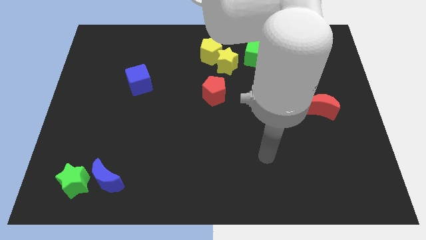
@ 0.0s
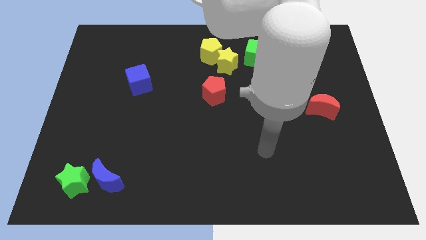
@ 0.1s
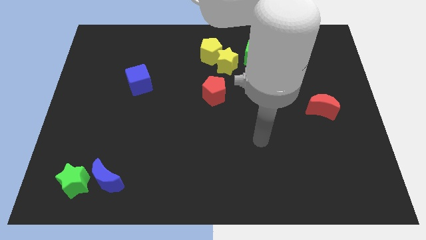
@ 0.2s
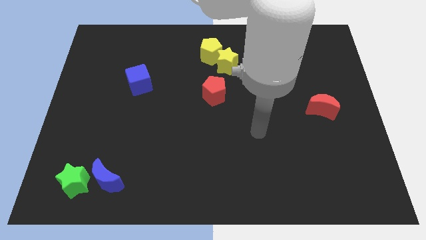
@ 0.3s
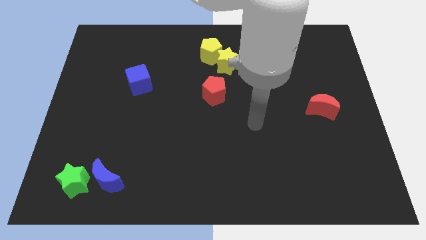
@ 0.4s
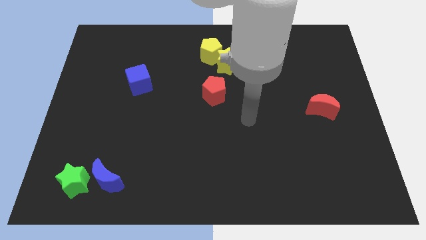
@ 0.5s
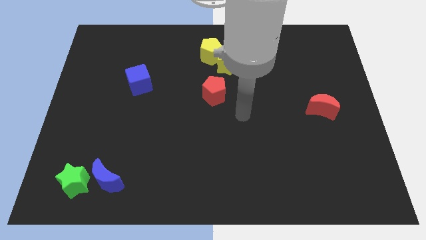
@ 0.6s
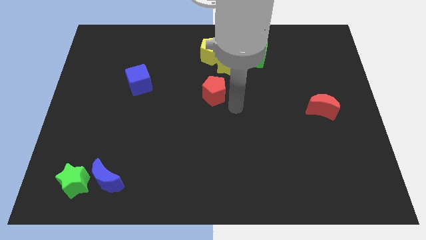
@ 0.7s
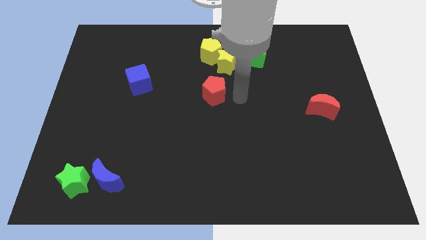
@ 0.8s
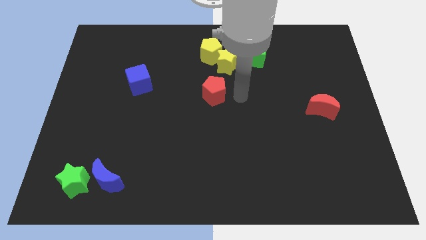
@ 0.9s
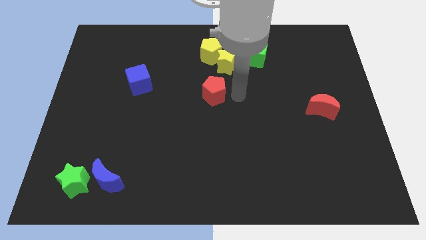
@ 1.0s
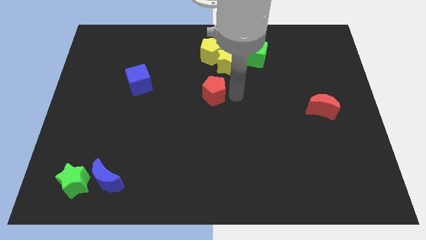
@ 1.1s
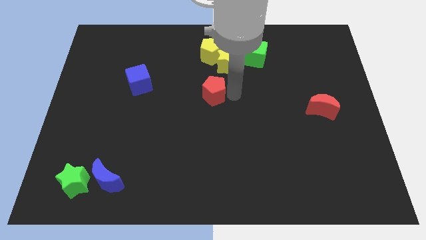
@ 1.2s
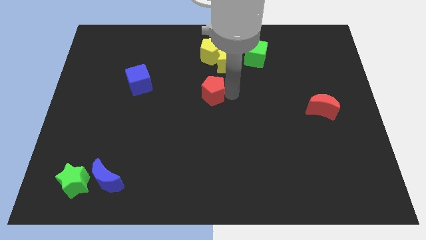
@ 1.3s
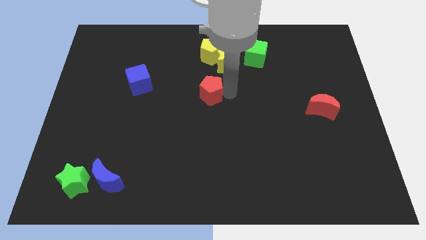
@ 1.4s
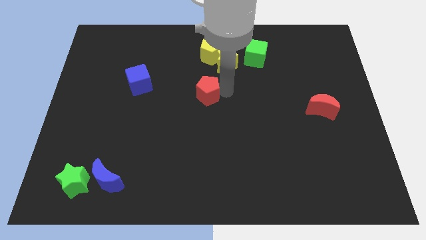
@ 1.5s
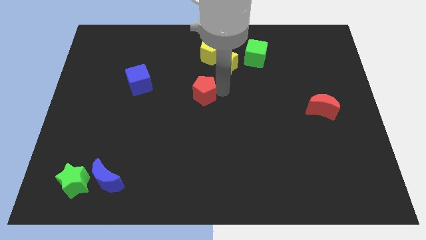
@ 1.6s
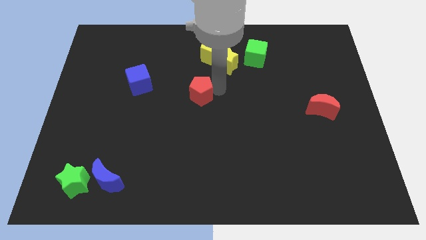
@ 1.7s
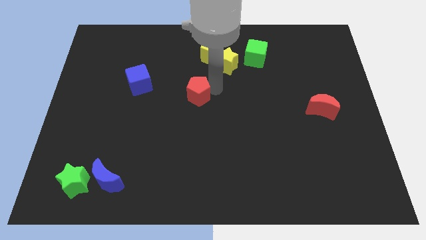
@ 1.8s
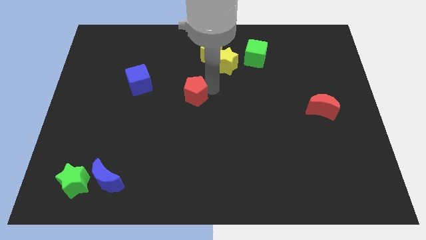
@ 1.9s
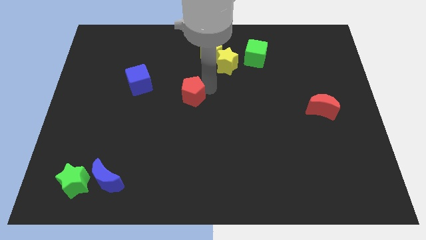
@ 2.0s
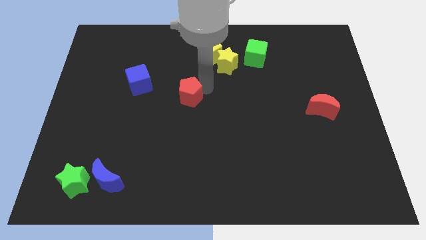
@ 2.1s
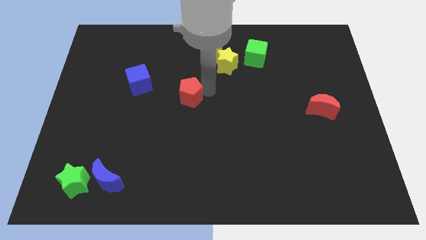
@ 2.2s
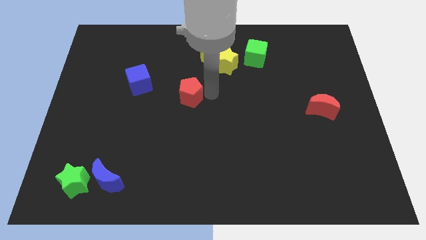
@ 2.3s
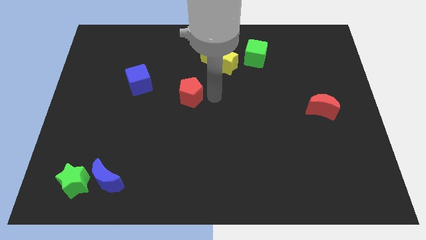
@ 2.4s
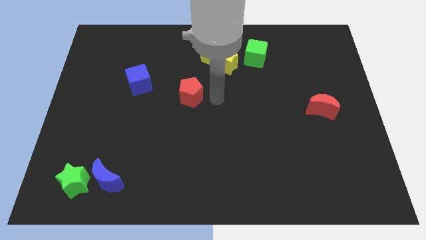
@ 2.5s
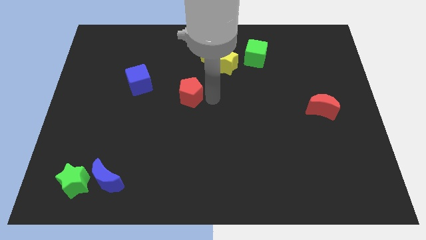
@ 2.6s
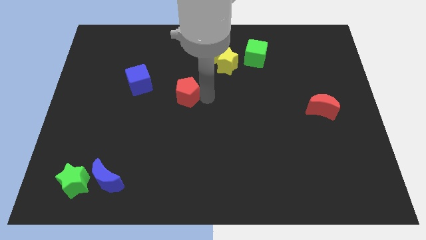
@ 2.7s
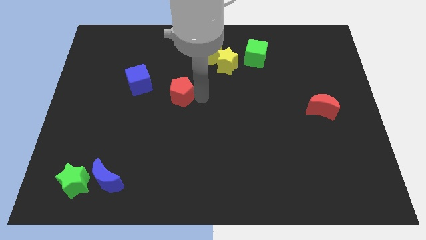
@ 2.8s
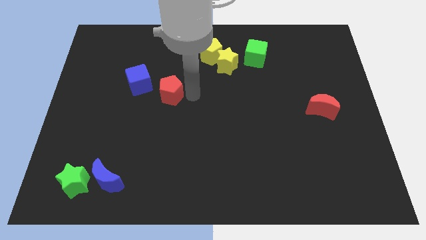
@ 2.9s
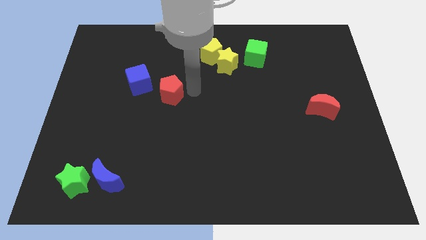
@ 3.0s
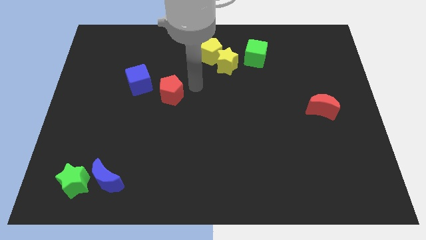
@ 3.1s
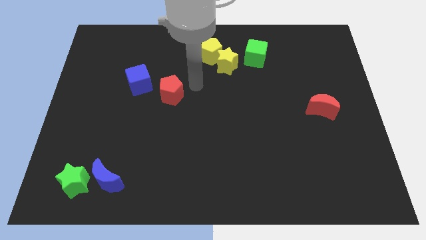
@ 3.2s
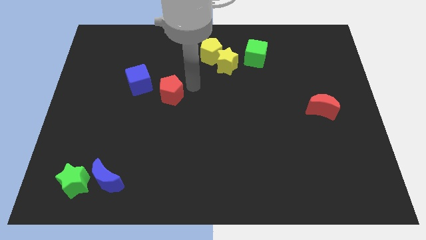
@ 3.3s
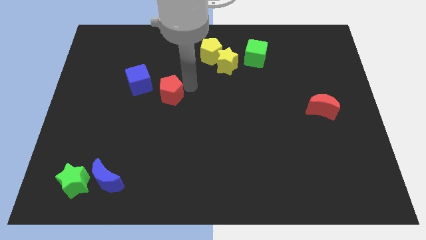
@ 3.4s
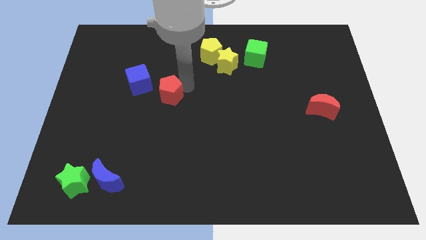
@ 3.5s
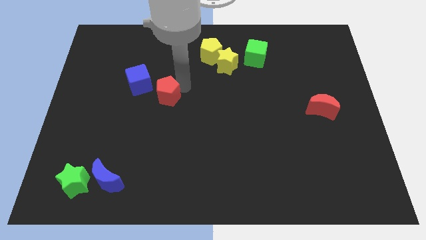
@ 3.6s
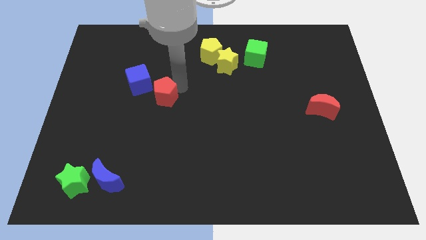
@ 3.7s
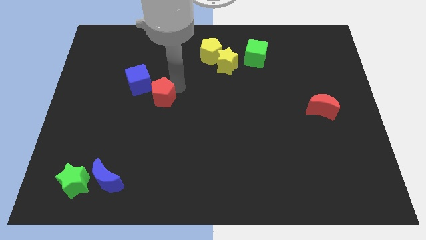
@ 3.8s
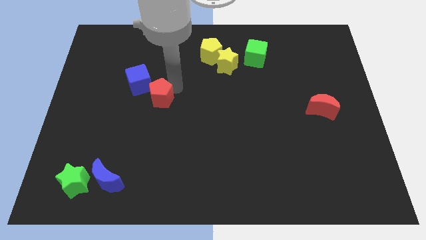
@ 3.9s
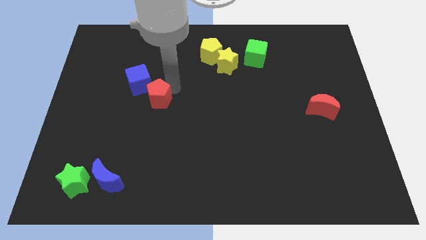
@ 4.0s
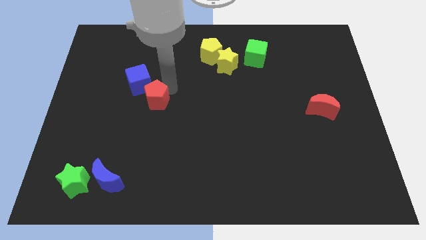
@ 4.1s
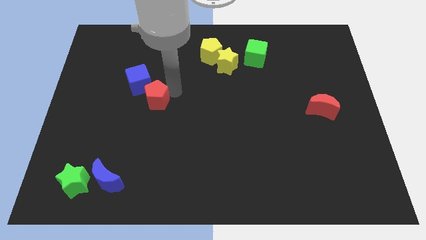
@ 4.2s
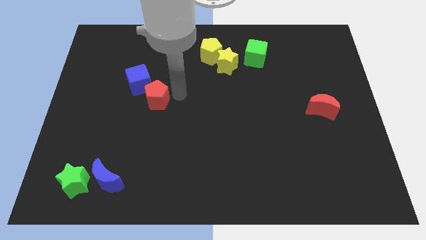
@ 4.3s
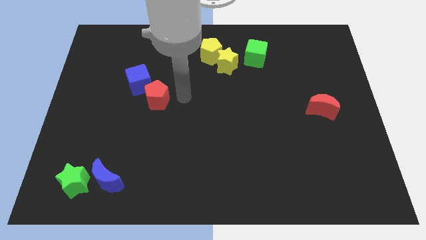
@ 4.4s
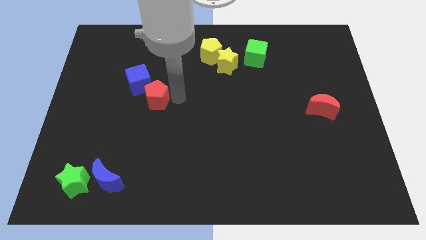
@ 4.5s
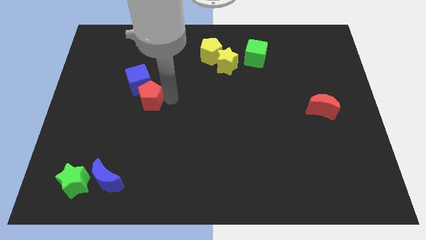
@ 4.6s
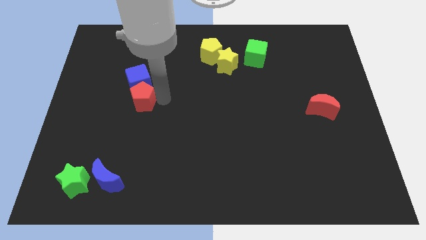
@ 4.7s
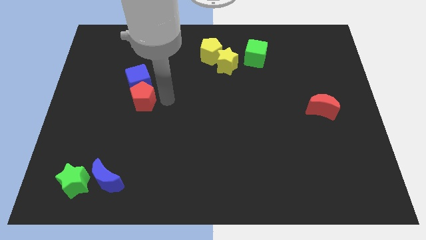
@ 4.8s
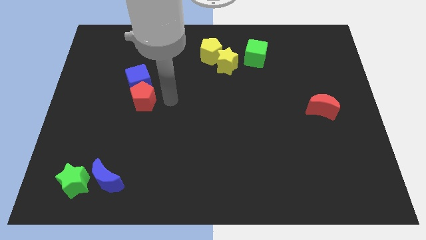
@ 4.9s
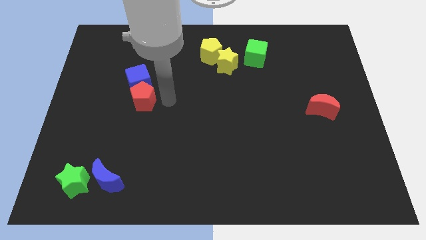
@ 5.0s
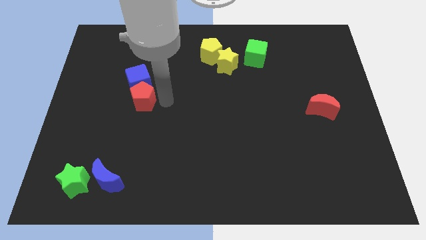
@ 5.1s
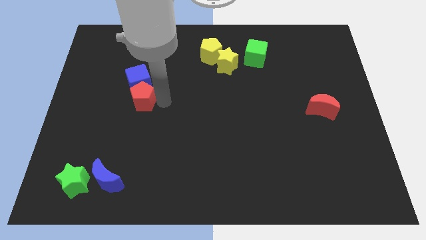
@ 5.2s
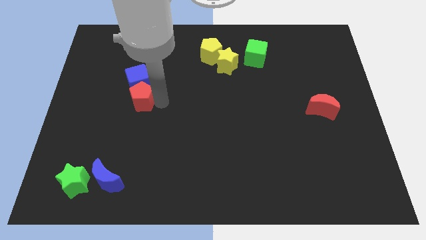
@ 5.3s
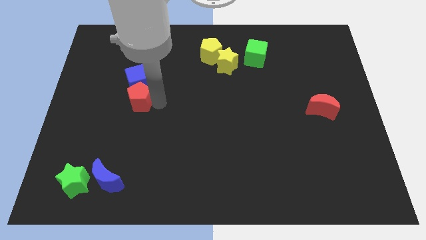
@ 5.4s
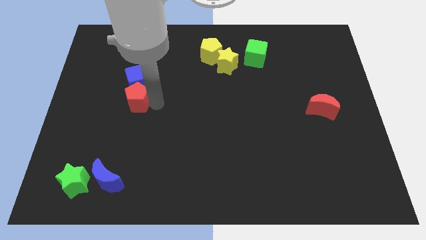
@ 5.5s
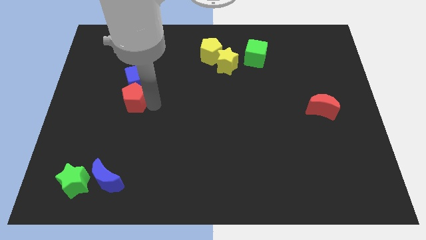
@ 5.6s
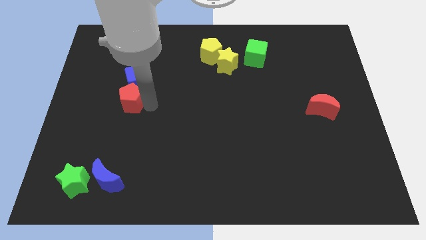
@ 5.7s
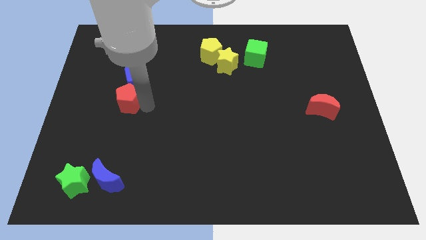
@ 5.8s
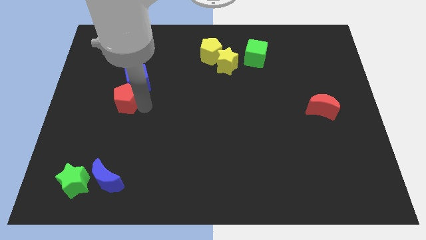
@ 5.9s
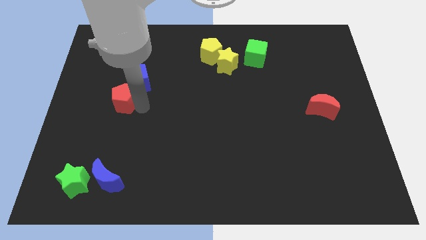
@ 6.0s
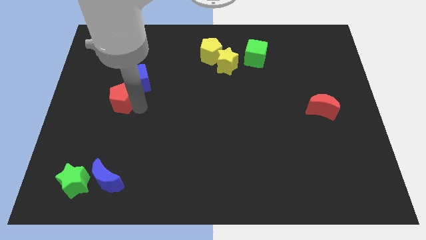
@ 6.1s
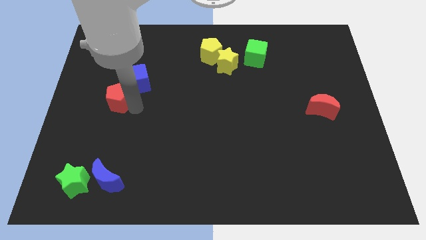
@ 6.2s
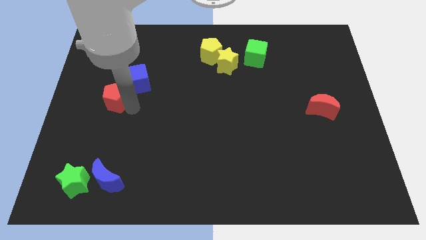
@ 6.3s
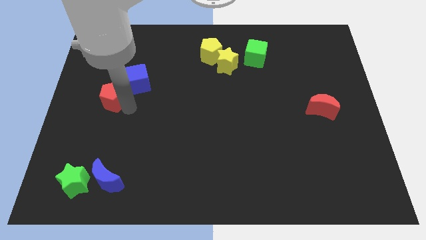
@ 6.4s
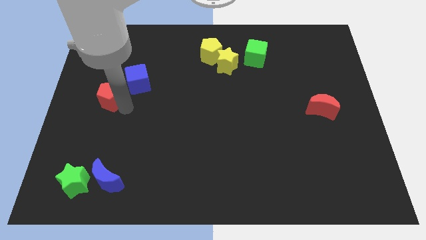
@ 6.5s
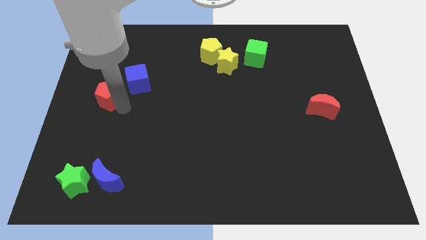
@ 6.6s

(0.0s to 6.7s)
slide the red pentagon to the left side

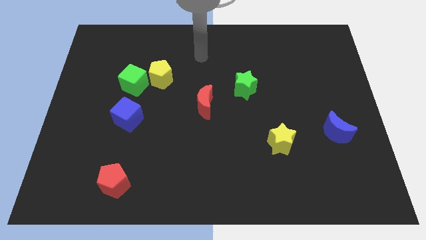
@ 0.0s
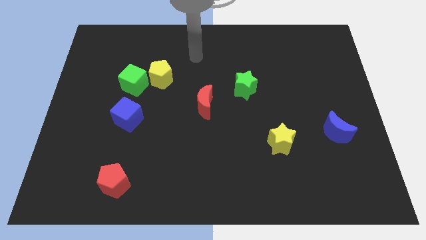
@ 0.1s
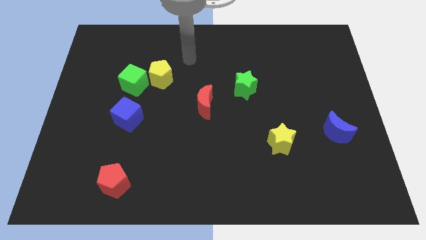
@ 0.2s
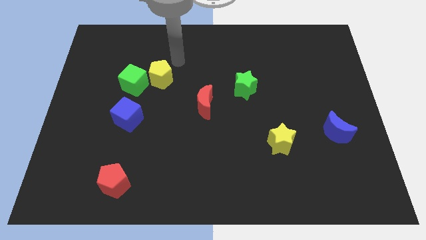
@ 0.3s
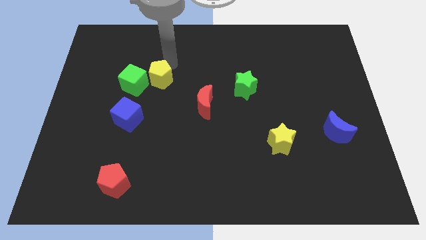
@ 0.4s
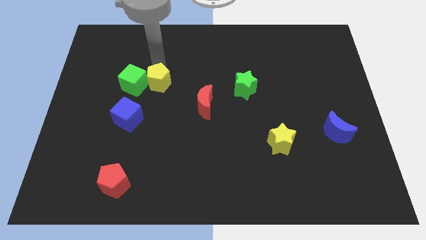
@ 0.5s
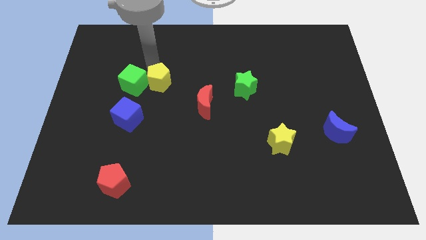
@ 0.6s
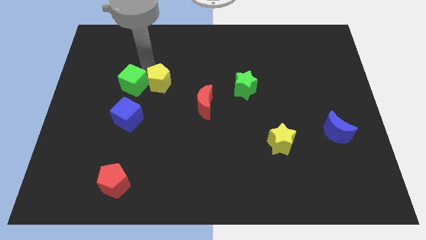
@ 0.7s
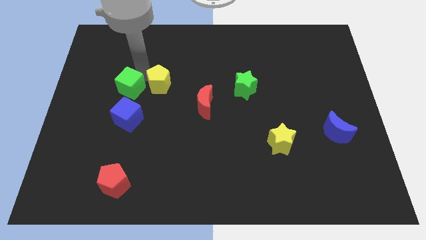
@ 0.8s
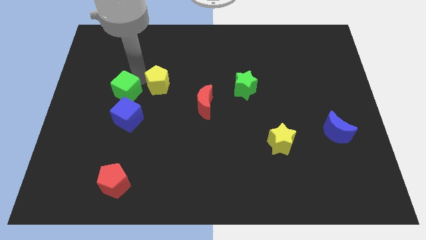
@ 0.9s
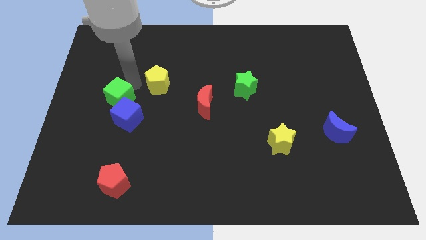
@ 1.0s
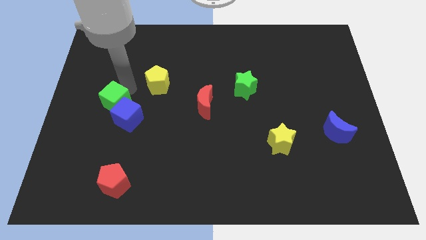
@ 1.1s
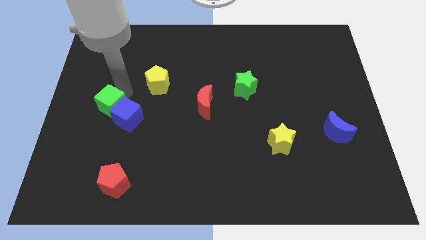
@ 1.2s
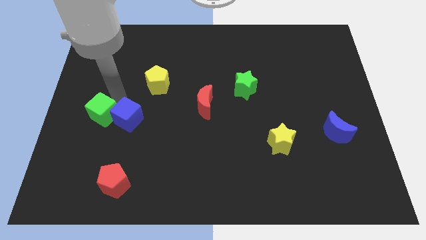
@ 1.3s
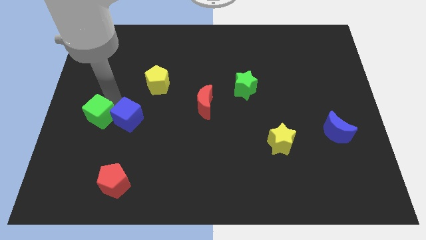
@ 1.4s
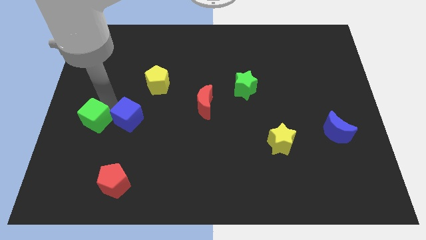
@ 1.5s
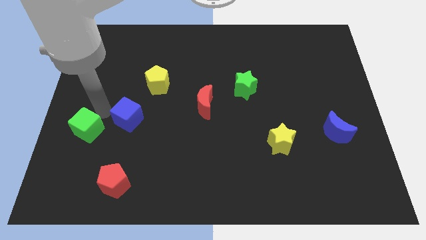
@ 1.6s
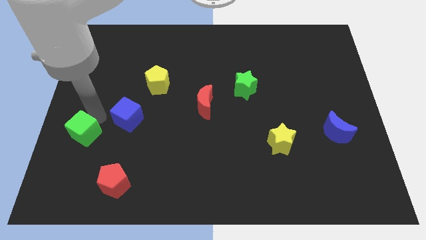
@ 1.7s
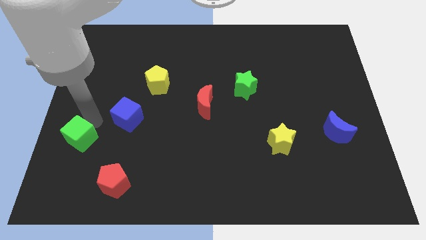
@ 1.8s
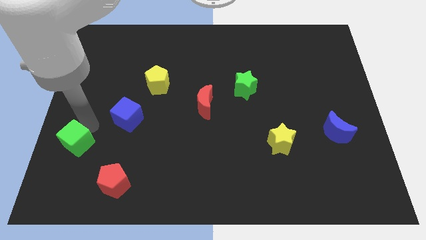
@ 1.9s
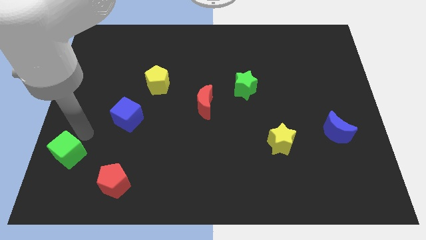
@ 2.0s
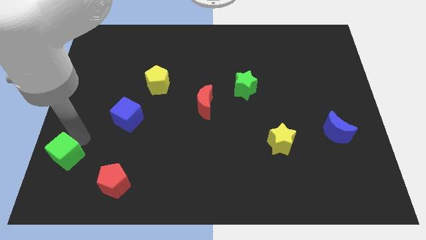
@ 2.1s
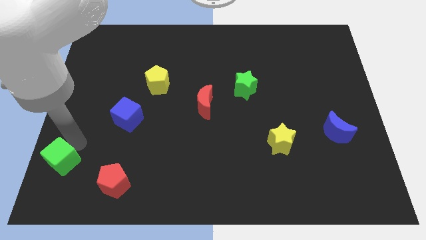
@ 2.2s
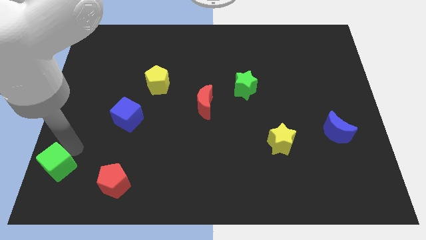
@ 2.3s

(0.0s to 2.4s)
push the green cube to the bottom left of the board
